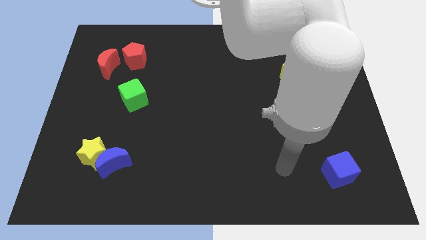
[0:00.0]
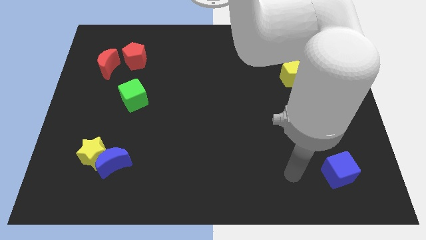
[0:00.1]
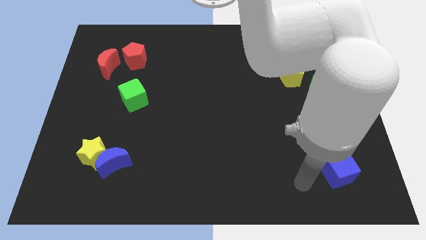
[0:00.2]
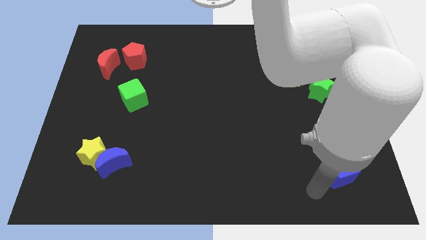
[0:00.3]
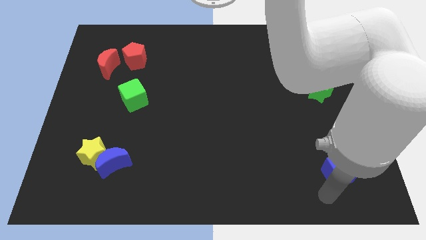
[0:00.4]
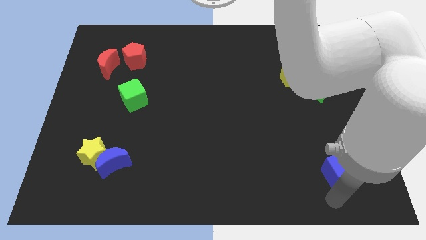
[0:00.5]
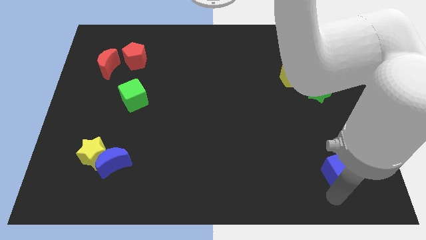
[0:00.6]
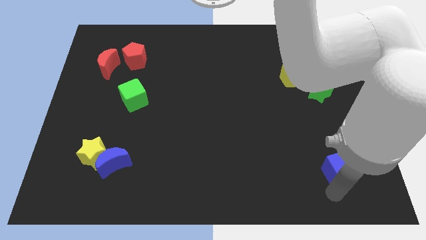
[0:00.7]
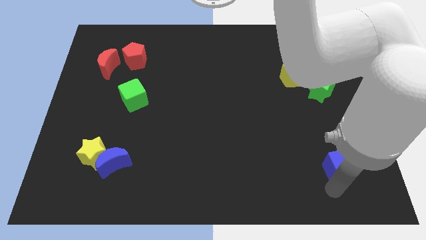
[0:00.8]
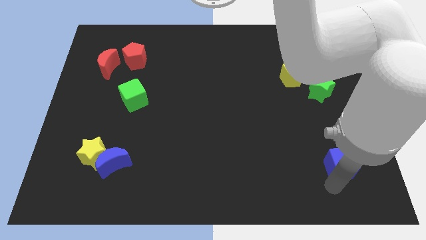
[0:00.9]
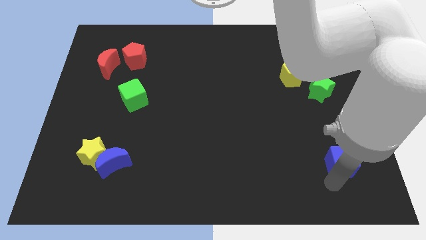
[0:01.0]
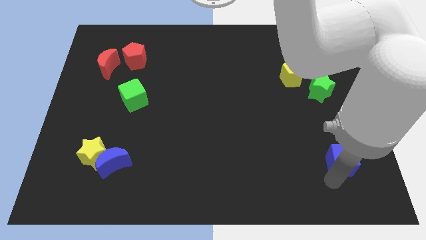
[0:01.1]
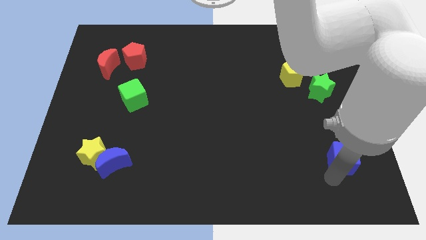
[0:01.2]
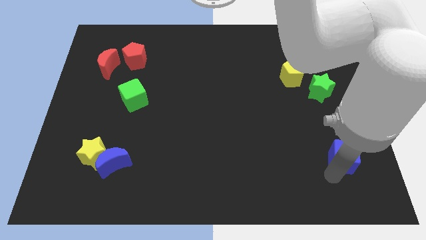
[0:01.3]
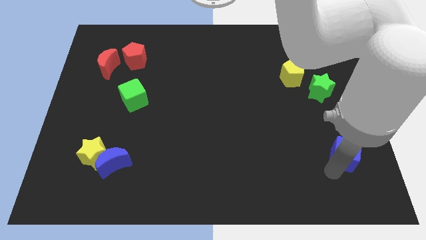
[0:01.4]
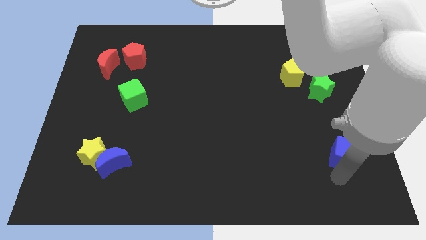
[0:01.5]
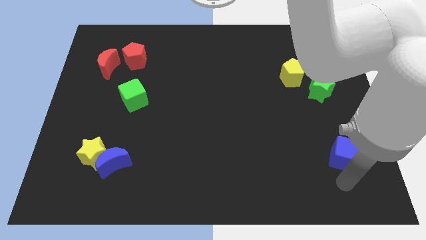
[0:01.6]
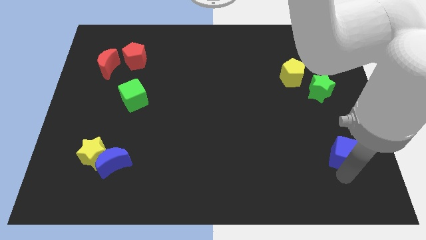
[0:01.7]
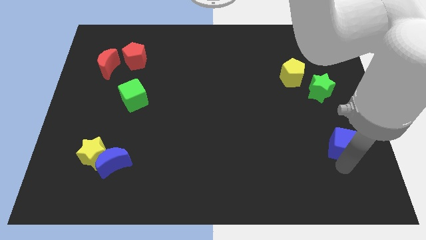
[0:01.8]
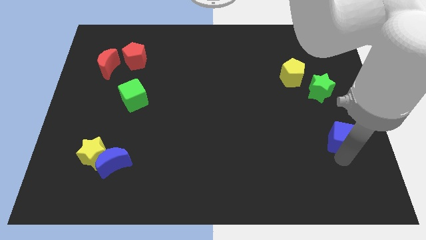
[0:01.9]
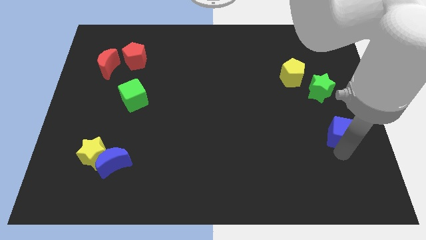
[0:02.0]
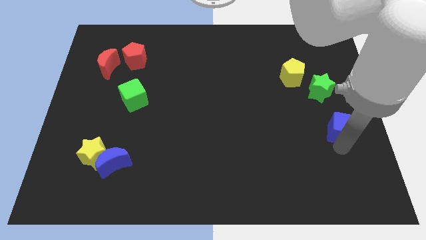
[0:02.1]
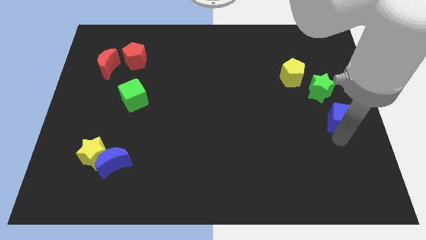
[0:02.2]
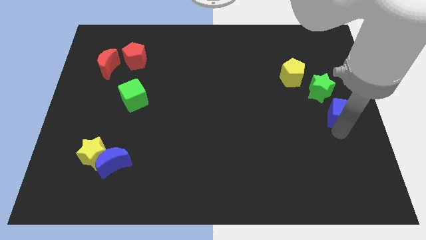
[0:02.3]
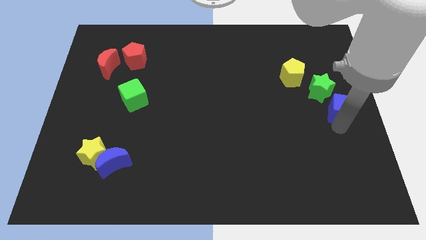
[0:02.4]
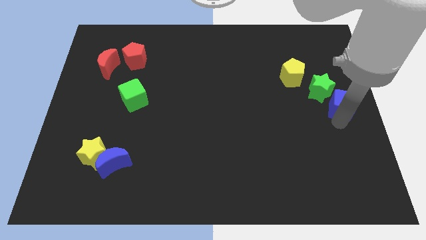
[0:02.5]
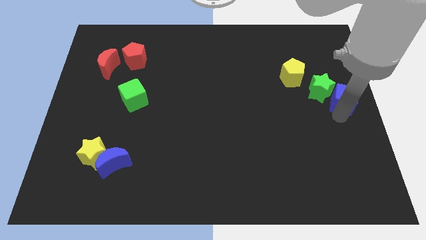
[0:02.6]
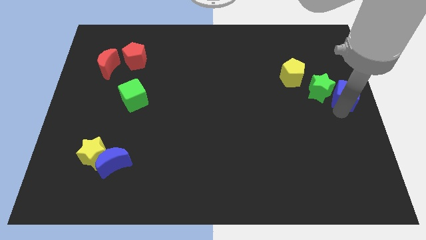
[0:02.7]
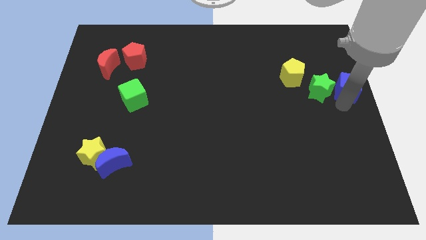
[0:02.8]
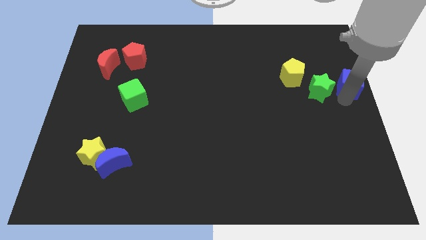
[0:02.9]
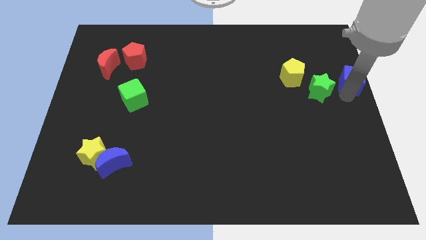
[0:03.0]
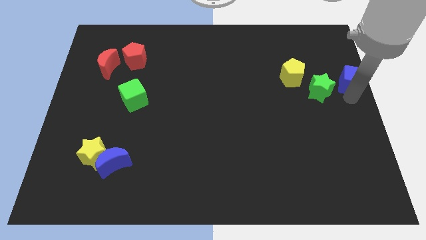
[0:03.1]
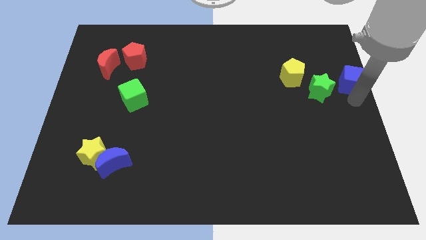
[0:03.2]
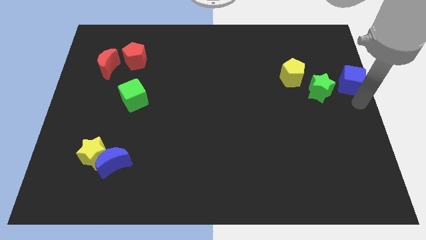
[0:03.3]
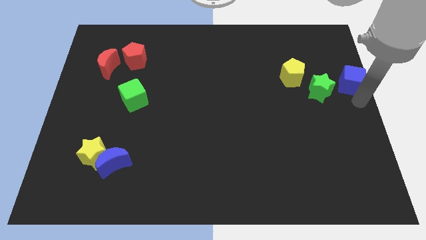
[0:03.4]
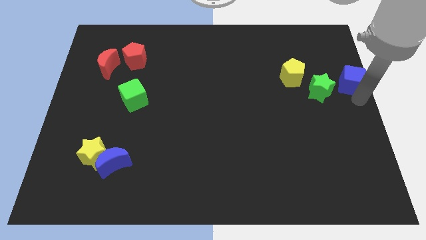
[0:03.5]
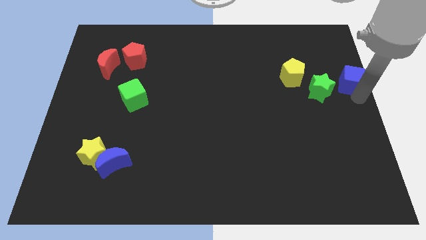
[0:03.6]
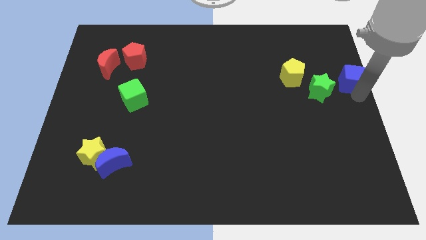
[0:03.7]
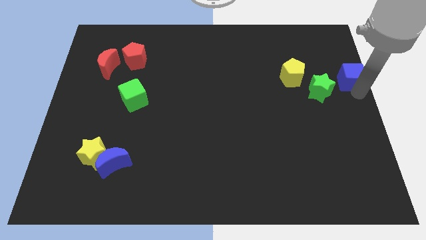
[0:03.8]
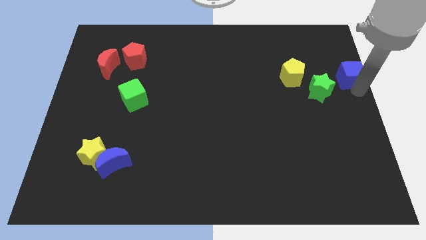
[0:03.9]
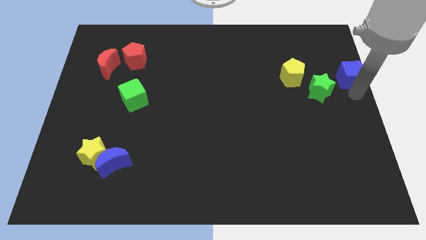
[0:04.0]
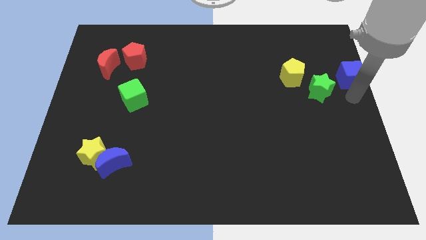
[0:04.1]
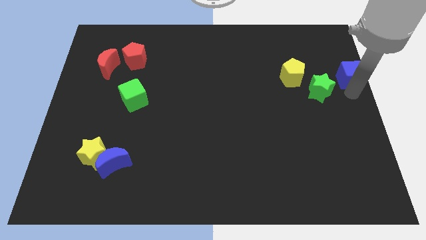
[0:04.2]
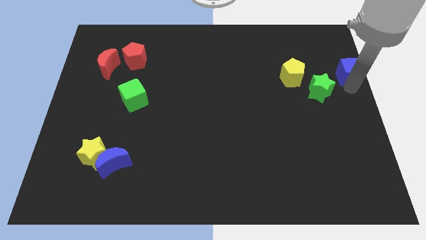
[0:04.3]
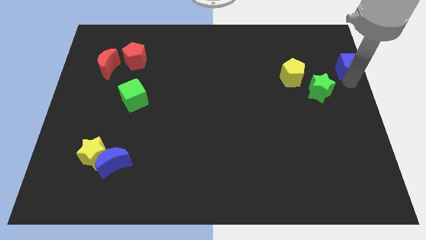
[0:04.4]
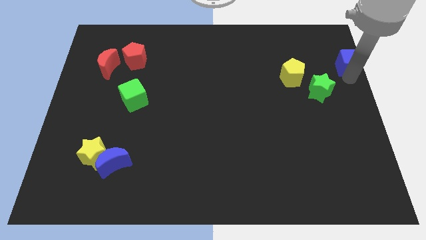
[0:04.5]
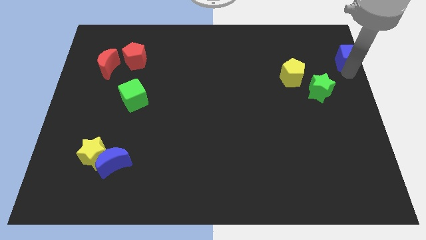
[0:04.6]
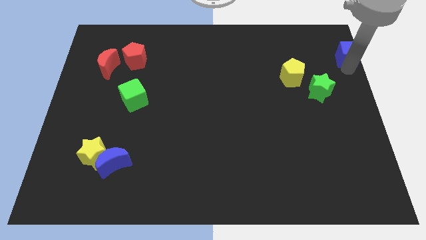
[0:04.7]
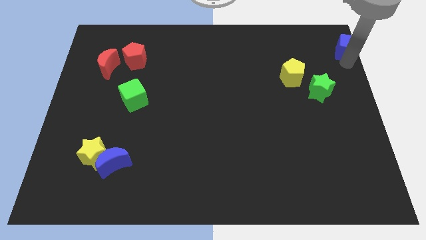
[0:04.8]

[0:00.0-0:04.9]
slide the blue cube to the top right of the board

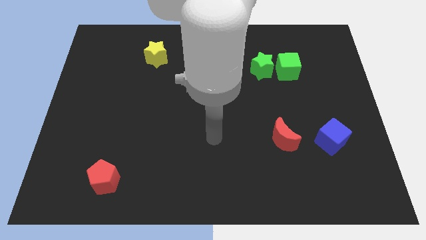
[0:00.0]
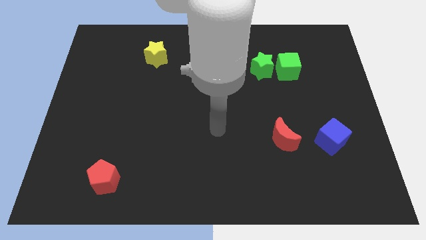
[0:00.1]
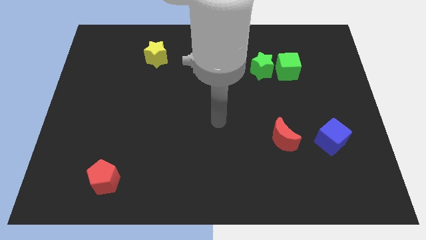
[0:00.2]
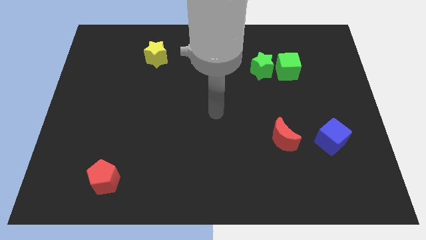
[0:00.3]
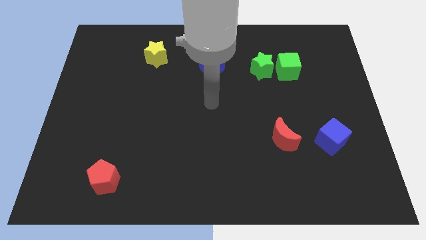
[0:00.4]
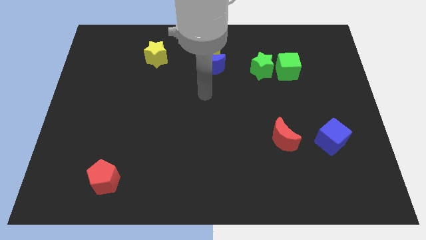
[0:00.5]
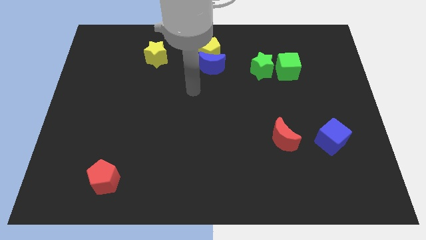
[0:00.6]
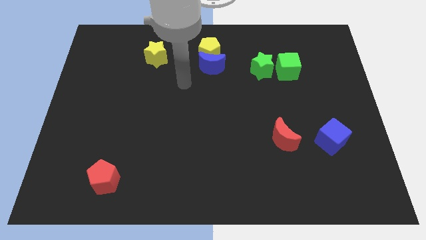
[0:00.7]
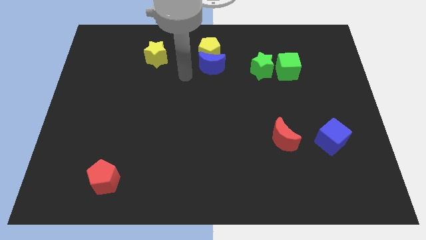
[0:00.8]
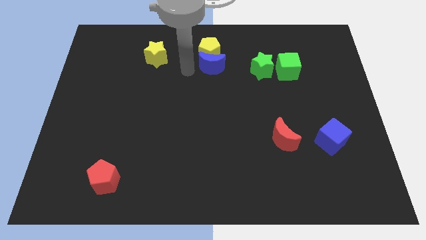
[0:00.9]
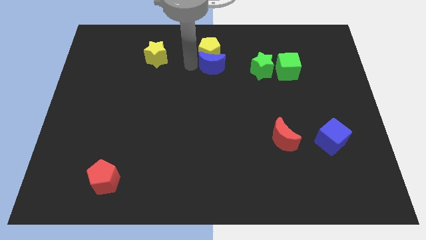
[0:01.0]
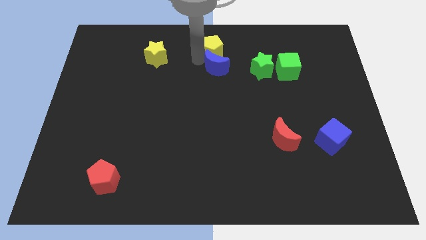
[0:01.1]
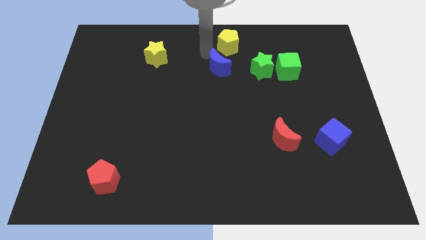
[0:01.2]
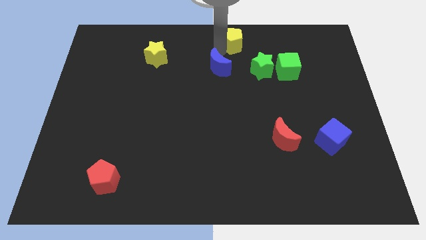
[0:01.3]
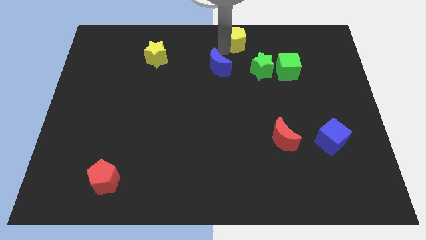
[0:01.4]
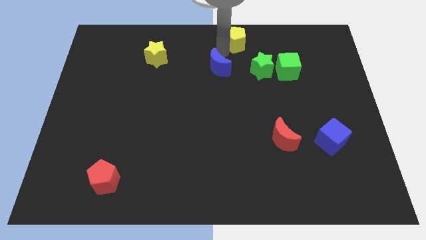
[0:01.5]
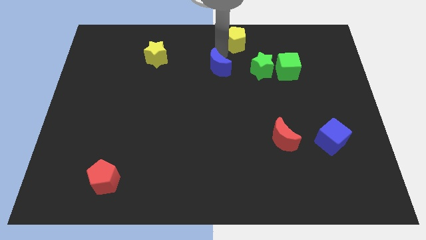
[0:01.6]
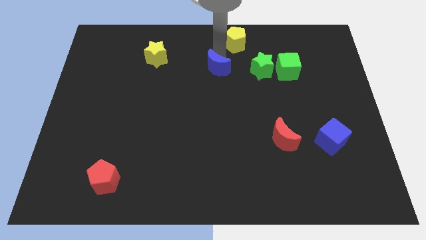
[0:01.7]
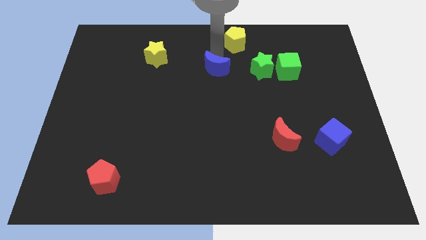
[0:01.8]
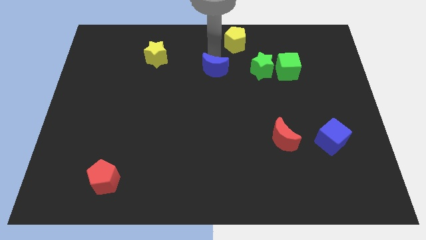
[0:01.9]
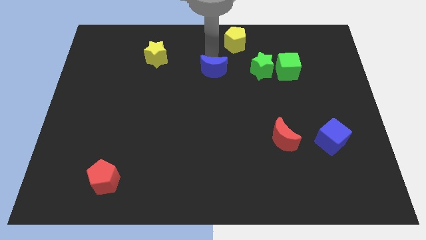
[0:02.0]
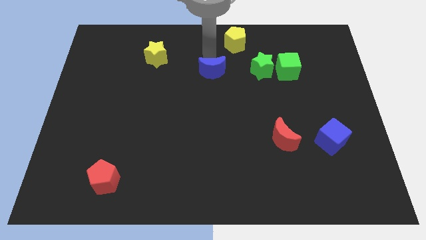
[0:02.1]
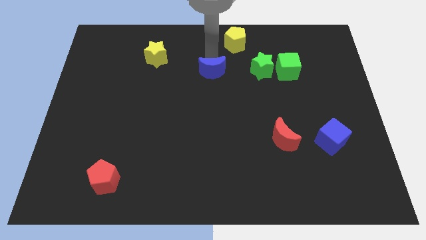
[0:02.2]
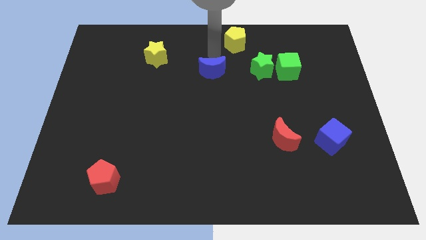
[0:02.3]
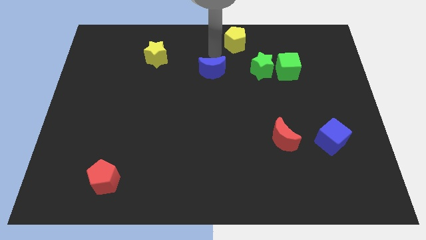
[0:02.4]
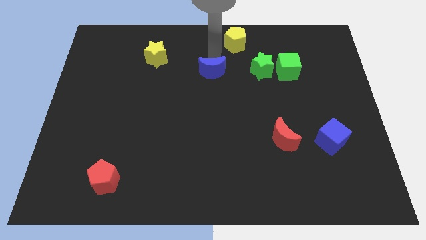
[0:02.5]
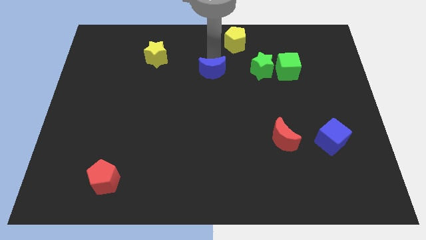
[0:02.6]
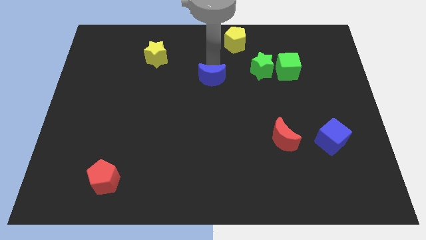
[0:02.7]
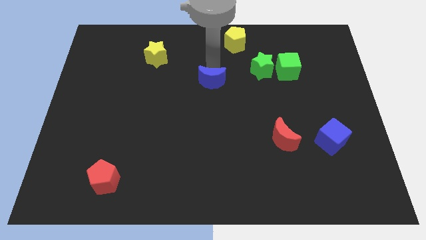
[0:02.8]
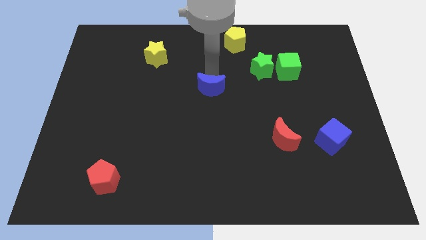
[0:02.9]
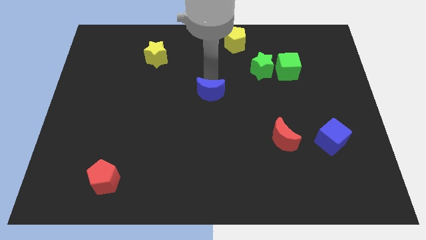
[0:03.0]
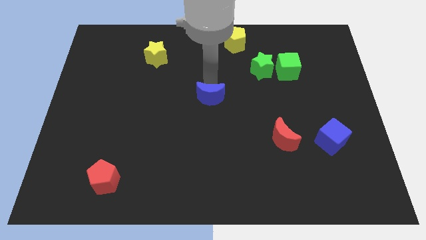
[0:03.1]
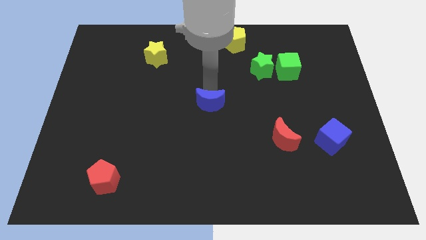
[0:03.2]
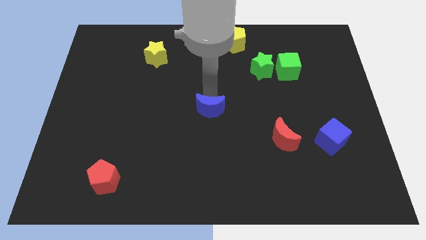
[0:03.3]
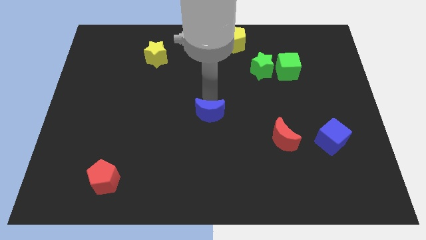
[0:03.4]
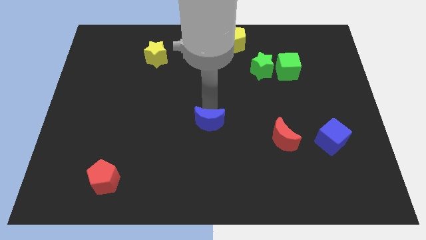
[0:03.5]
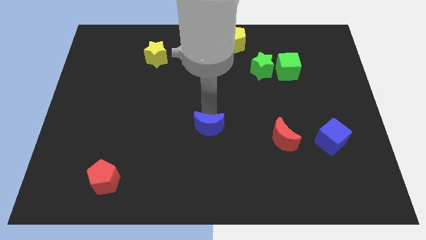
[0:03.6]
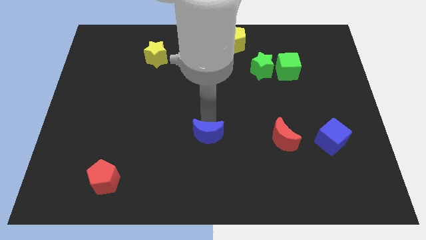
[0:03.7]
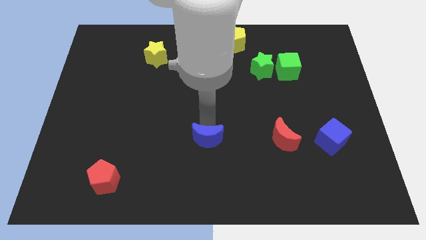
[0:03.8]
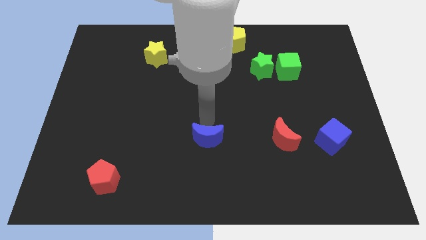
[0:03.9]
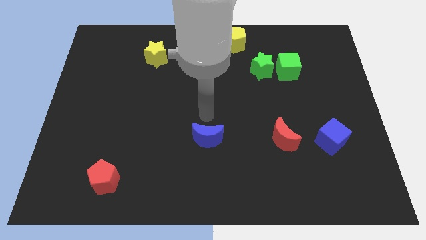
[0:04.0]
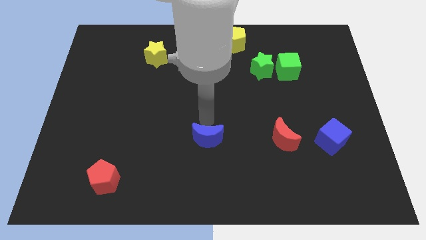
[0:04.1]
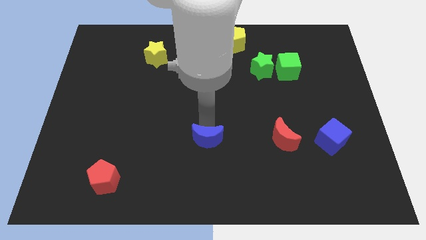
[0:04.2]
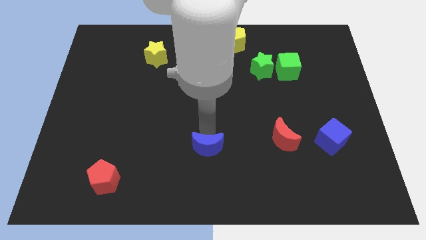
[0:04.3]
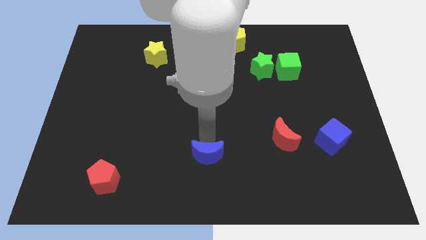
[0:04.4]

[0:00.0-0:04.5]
push the blue moon to the bottom side
